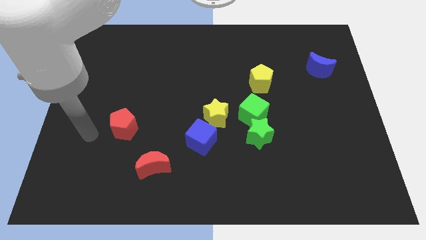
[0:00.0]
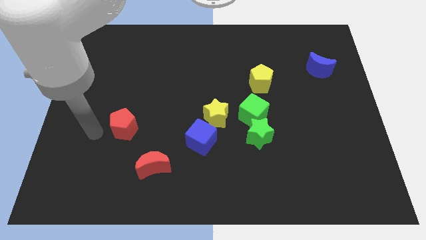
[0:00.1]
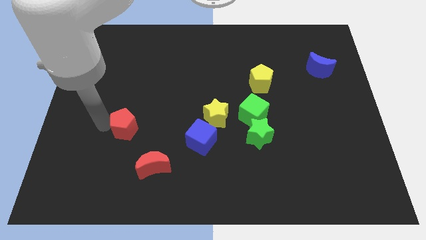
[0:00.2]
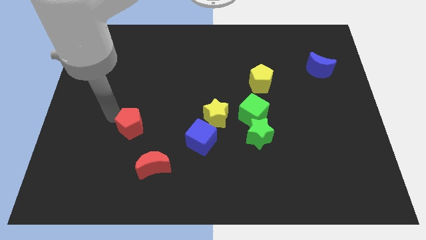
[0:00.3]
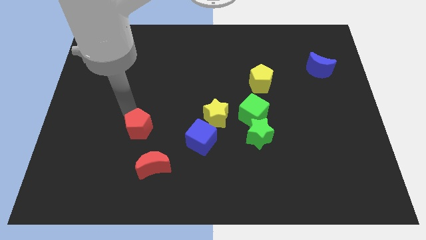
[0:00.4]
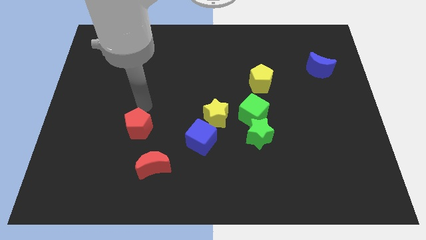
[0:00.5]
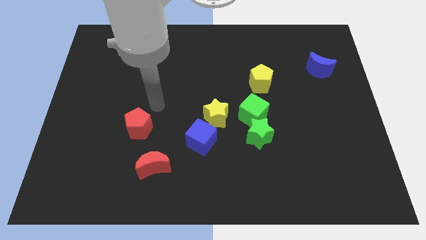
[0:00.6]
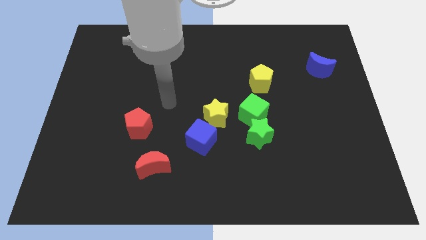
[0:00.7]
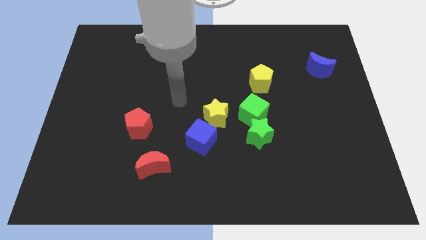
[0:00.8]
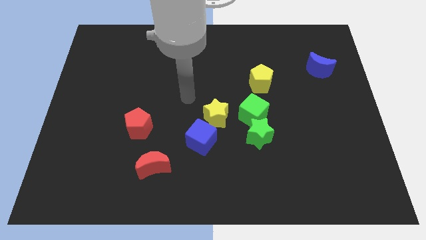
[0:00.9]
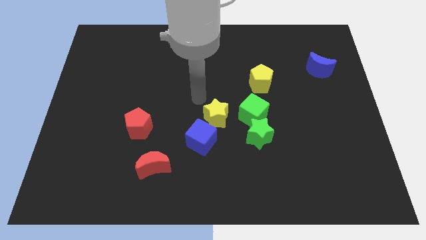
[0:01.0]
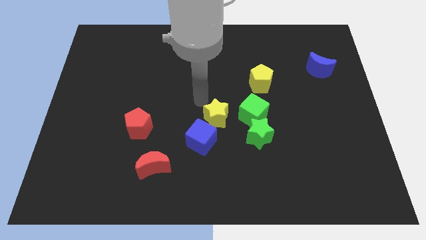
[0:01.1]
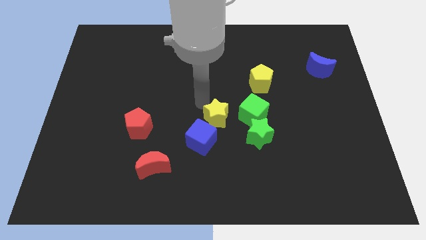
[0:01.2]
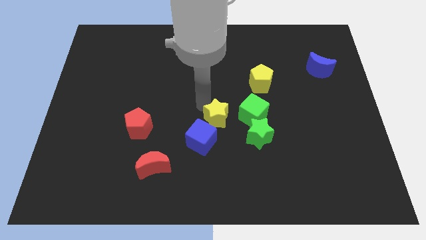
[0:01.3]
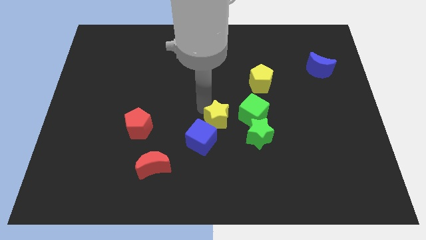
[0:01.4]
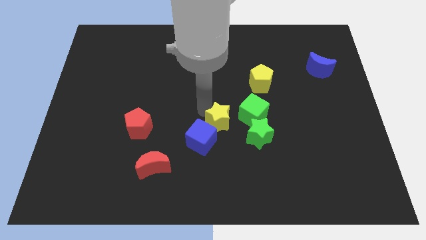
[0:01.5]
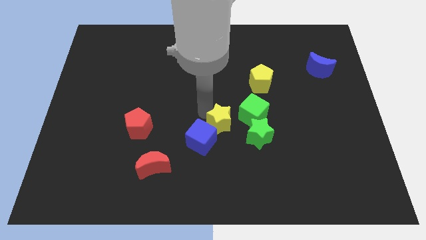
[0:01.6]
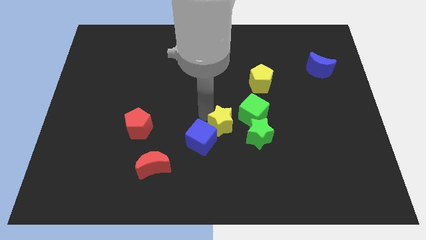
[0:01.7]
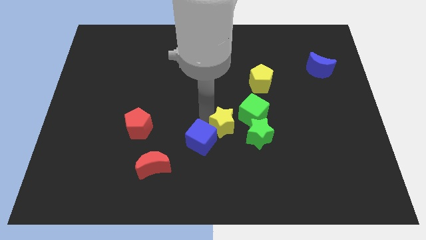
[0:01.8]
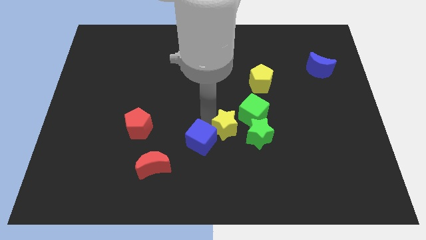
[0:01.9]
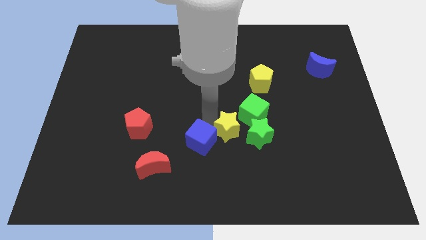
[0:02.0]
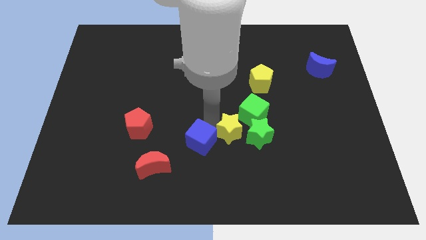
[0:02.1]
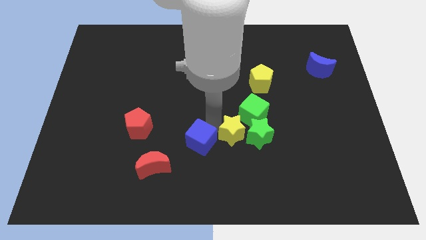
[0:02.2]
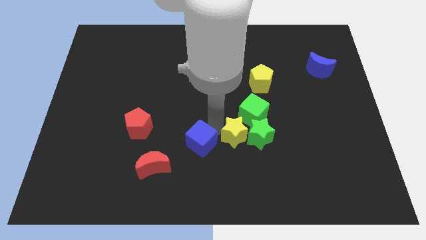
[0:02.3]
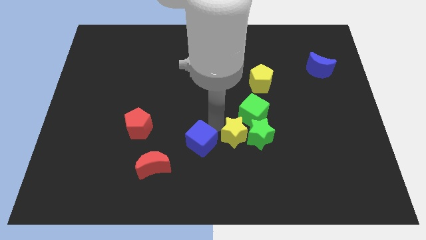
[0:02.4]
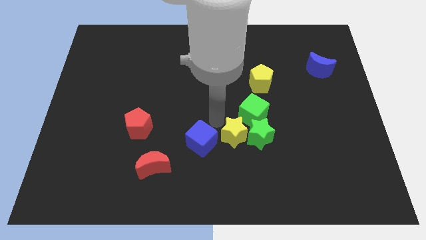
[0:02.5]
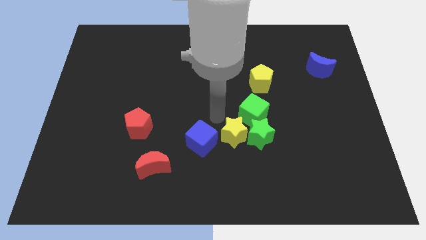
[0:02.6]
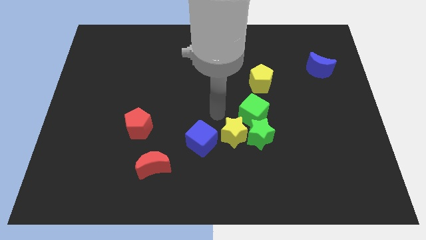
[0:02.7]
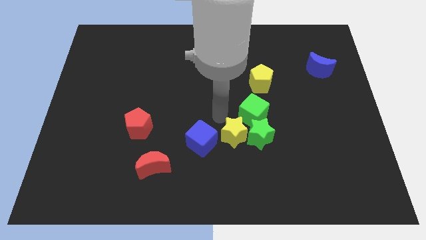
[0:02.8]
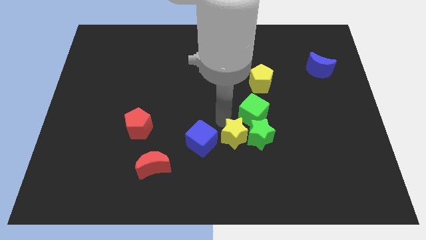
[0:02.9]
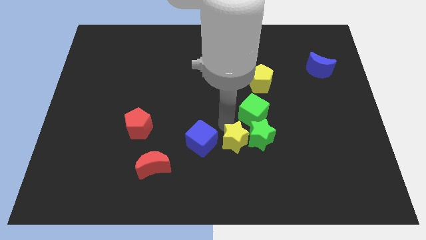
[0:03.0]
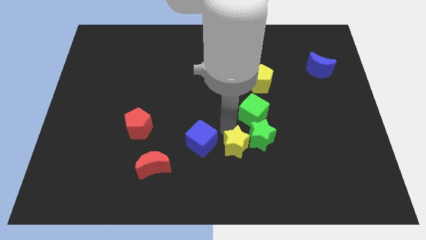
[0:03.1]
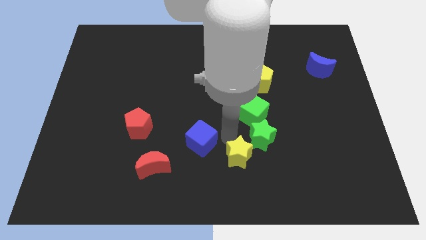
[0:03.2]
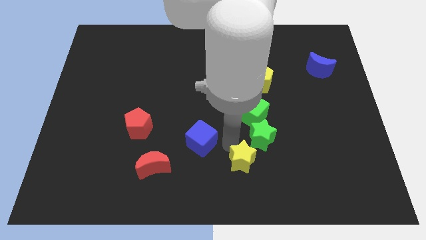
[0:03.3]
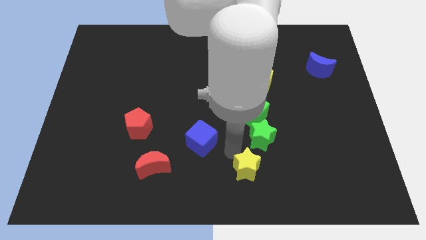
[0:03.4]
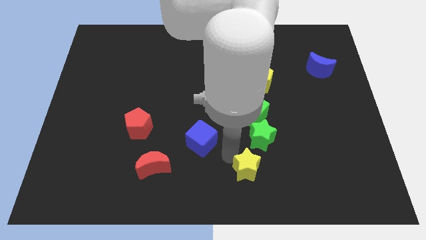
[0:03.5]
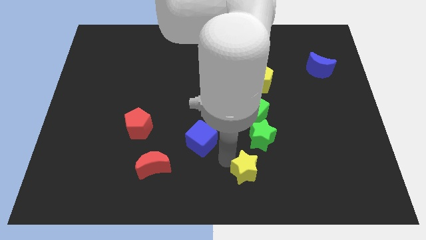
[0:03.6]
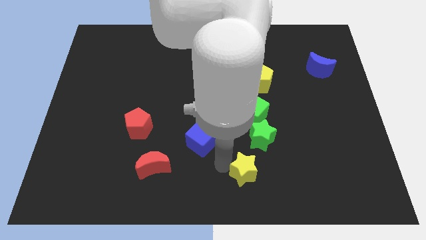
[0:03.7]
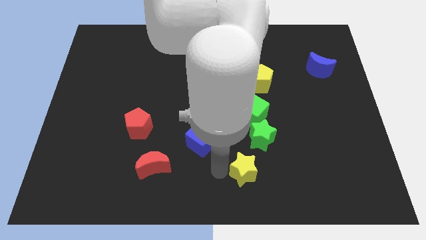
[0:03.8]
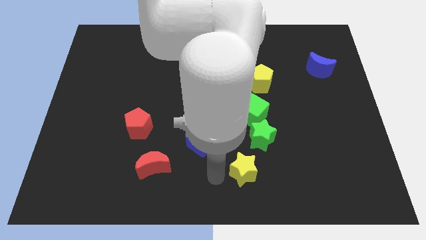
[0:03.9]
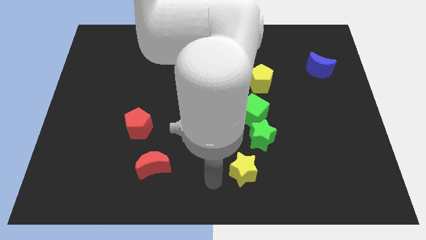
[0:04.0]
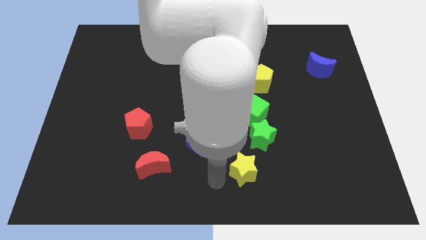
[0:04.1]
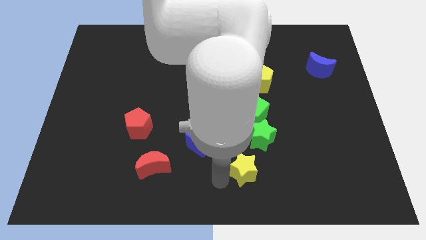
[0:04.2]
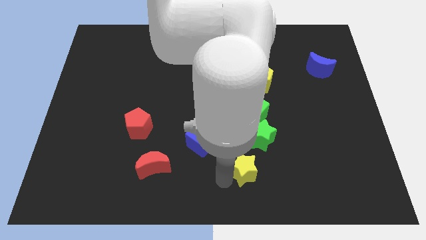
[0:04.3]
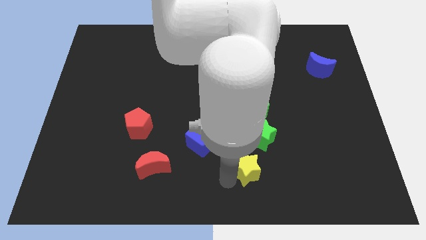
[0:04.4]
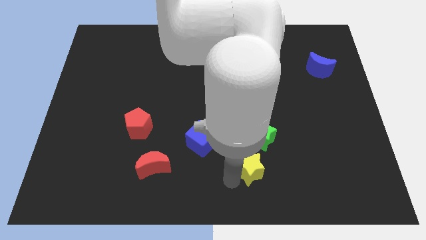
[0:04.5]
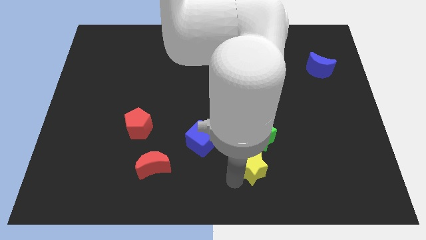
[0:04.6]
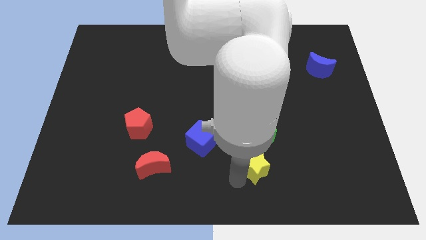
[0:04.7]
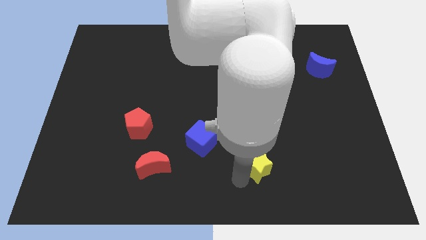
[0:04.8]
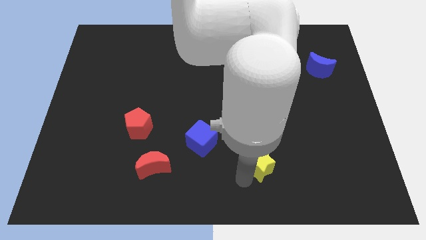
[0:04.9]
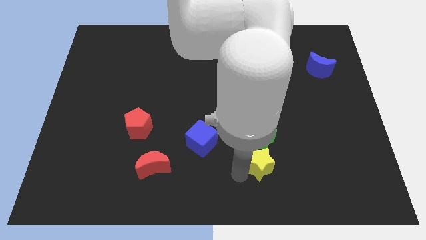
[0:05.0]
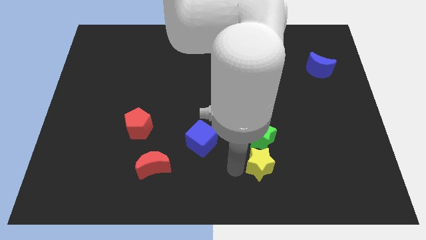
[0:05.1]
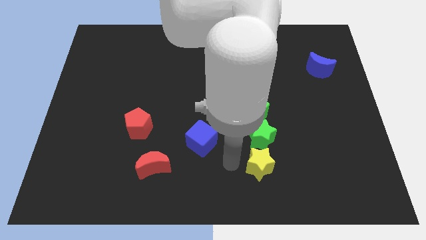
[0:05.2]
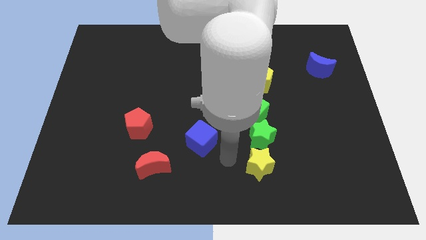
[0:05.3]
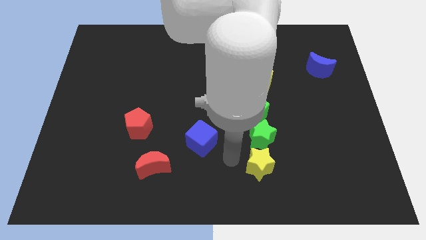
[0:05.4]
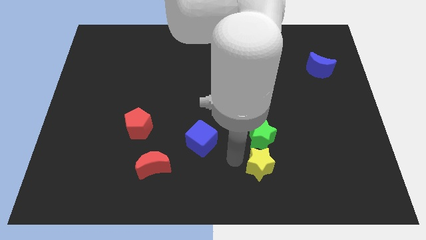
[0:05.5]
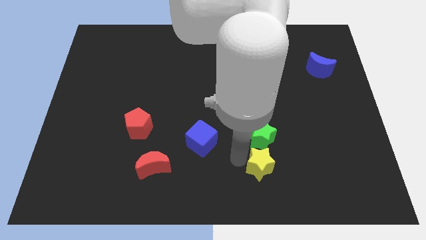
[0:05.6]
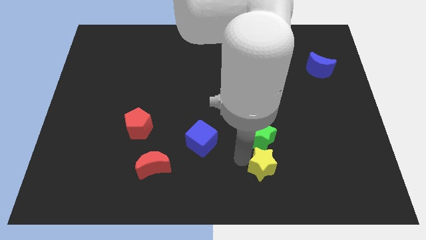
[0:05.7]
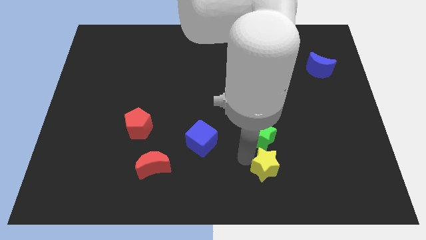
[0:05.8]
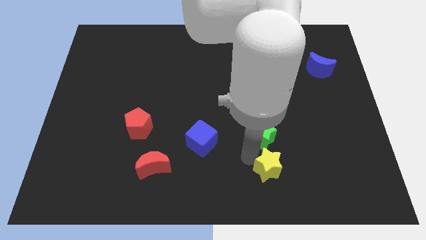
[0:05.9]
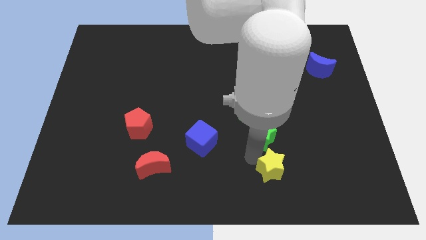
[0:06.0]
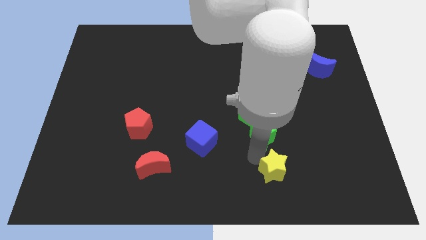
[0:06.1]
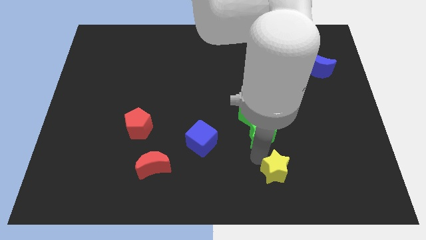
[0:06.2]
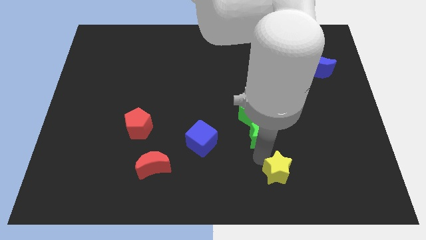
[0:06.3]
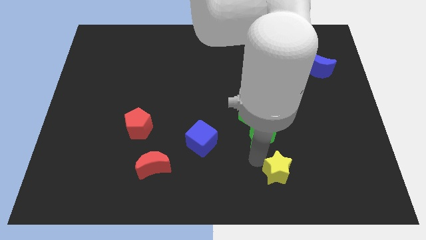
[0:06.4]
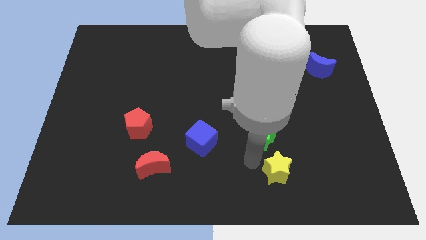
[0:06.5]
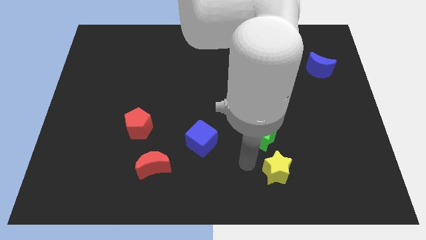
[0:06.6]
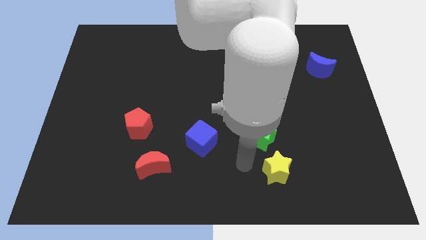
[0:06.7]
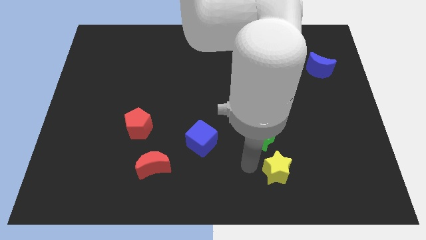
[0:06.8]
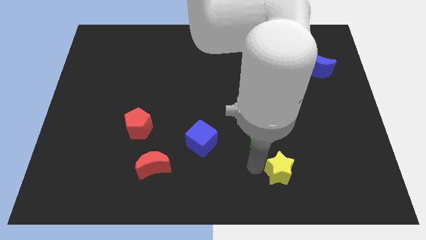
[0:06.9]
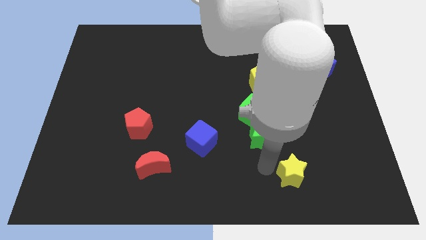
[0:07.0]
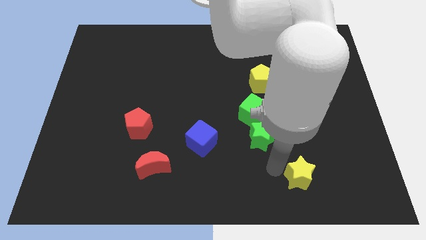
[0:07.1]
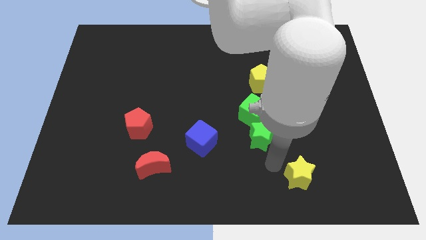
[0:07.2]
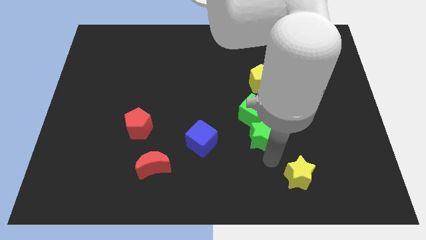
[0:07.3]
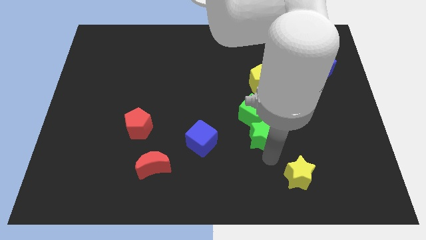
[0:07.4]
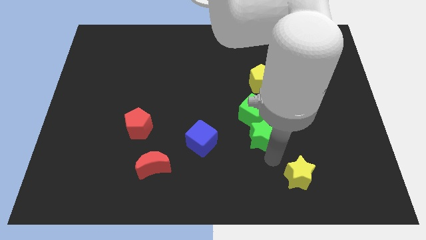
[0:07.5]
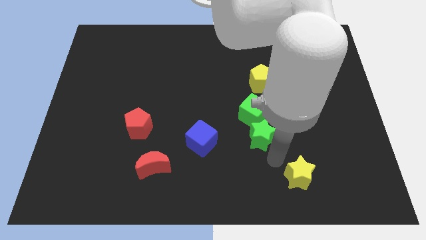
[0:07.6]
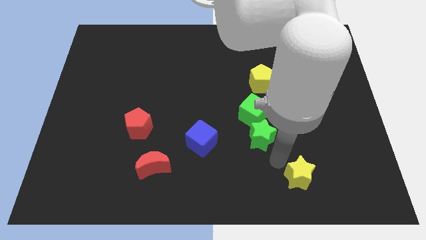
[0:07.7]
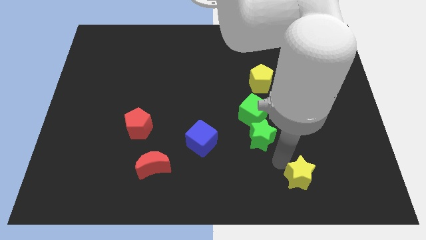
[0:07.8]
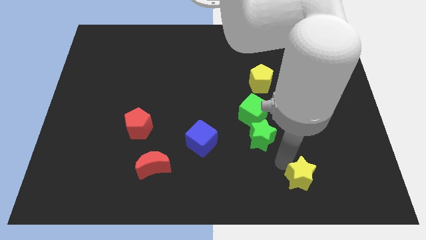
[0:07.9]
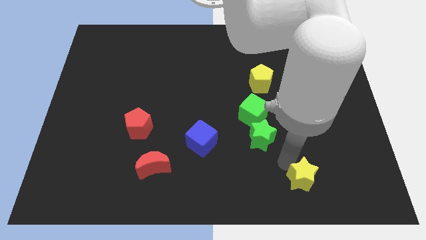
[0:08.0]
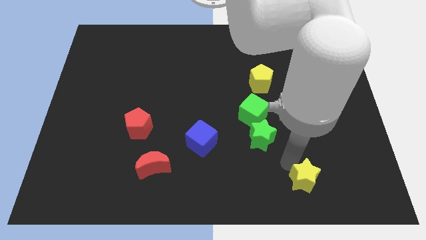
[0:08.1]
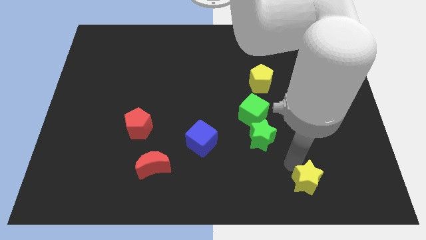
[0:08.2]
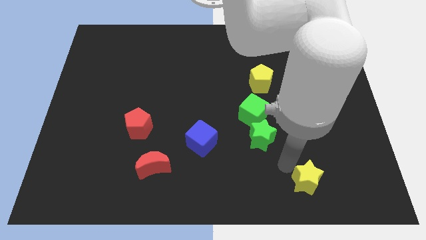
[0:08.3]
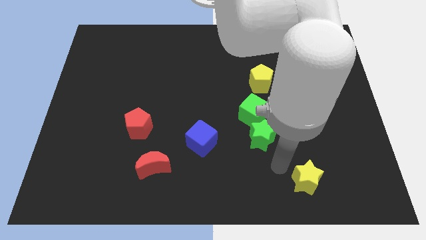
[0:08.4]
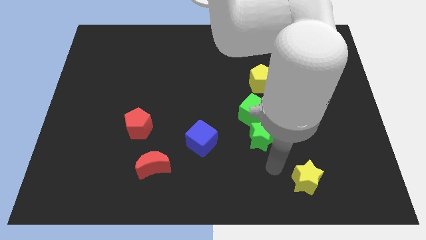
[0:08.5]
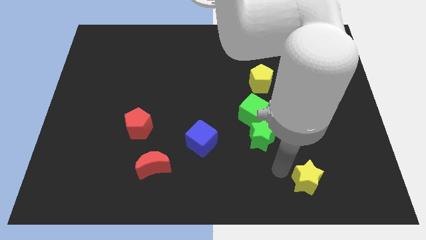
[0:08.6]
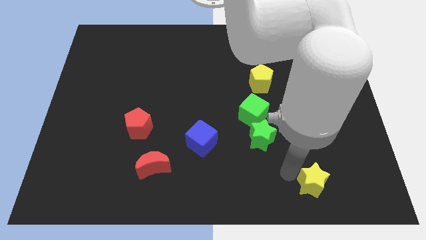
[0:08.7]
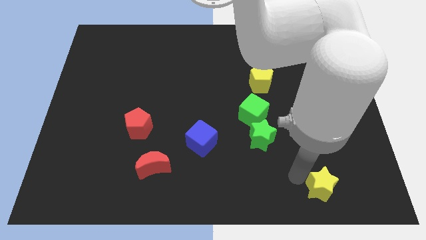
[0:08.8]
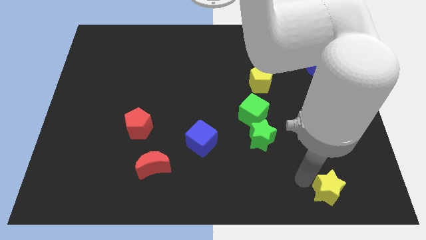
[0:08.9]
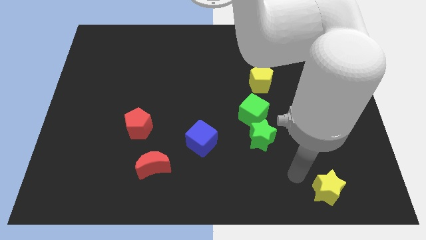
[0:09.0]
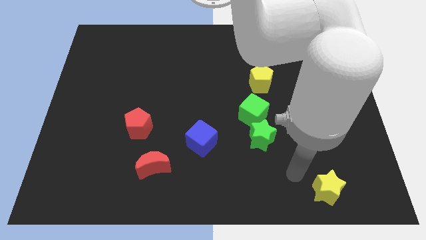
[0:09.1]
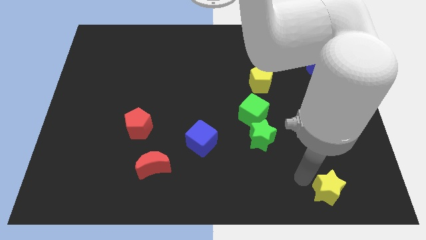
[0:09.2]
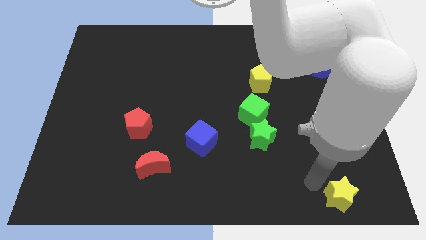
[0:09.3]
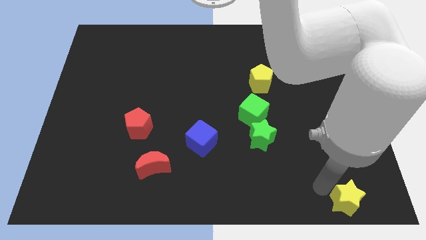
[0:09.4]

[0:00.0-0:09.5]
push the yellow star to the lower right corner
